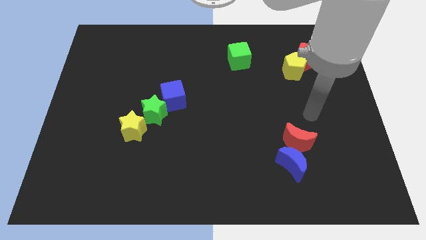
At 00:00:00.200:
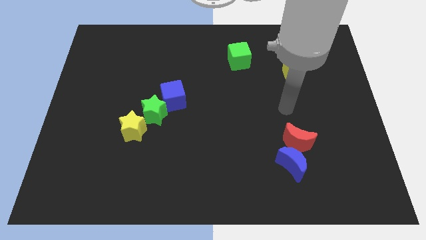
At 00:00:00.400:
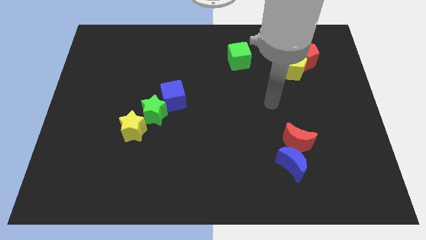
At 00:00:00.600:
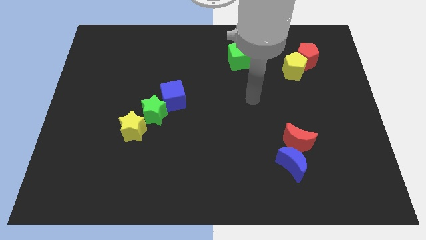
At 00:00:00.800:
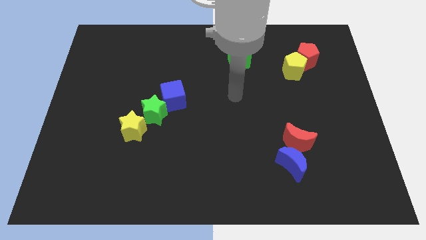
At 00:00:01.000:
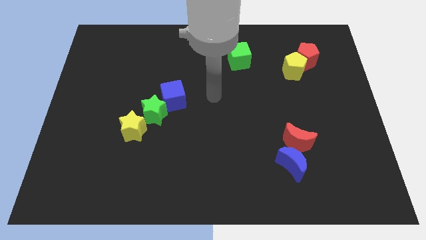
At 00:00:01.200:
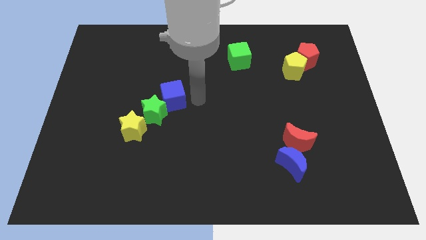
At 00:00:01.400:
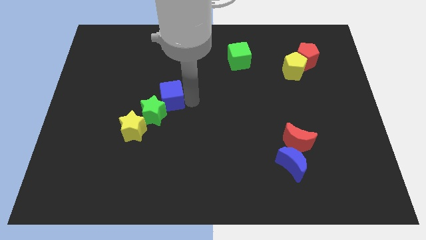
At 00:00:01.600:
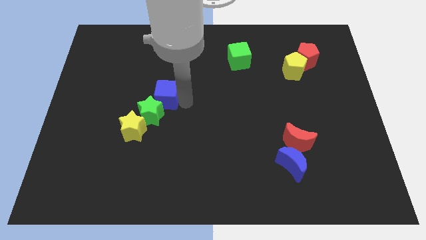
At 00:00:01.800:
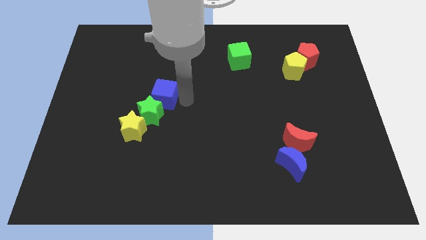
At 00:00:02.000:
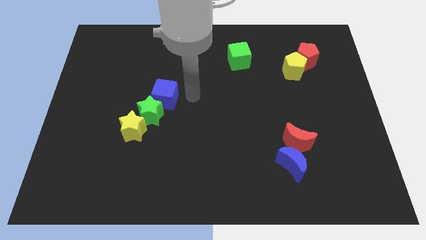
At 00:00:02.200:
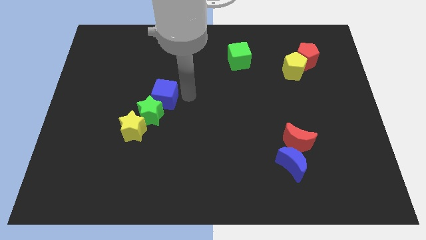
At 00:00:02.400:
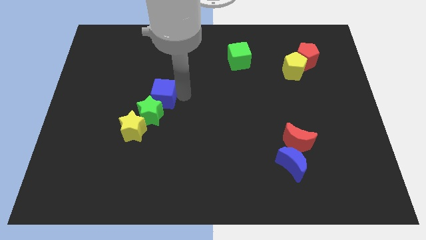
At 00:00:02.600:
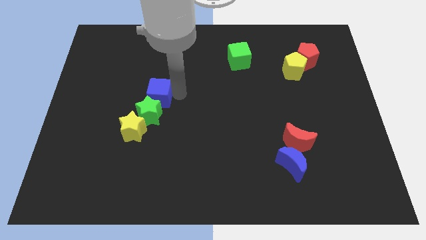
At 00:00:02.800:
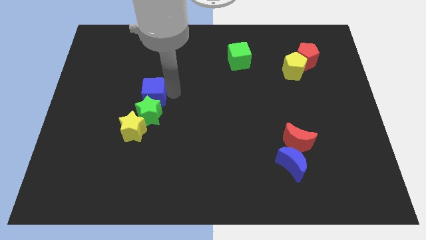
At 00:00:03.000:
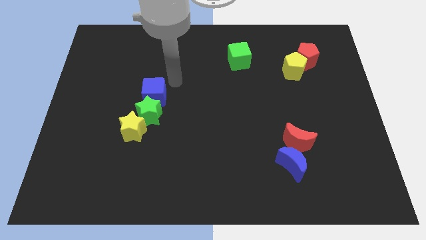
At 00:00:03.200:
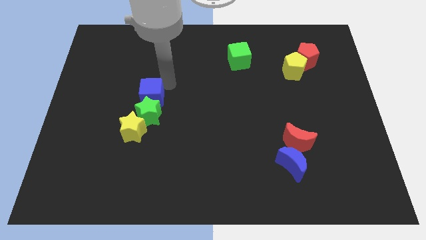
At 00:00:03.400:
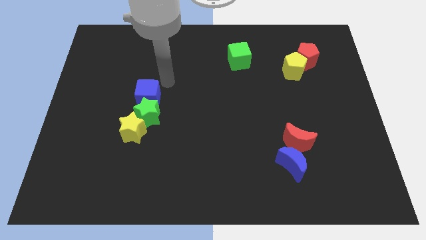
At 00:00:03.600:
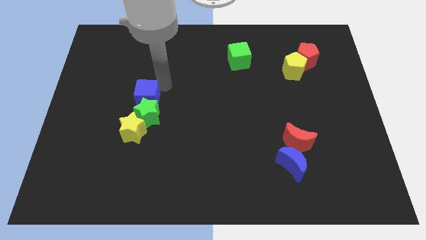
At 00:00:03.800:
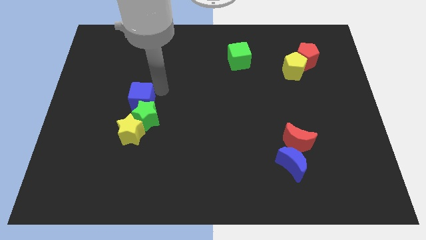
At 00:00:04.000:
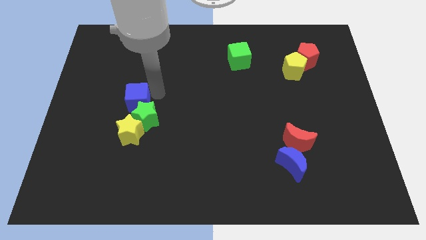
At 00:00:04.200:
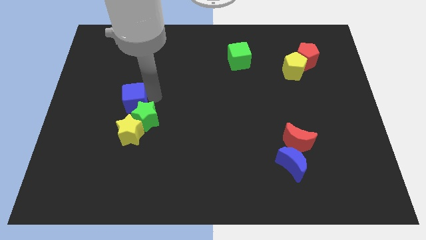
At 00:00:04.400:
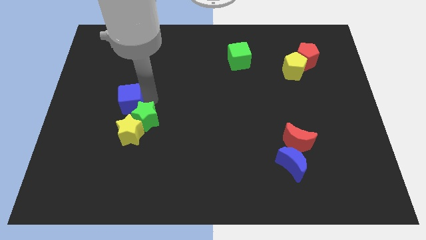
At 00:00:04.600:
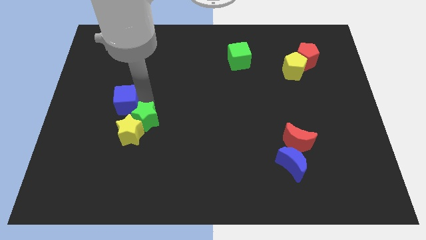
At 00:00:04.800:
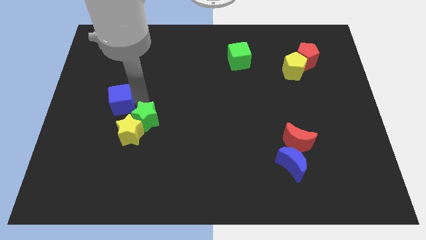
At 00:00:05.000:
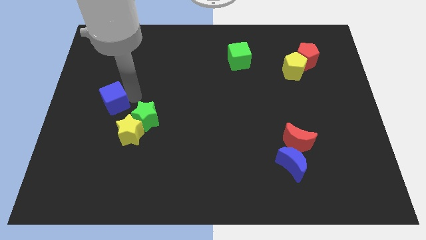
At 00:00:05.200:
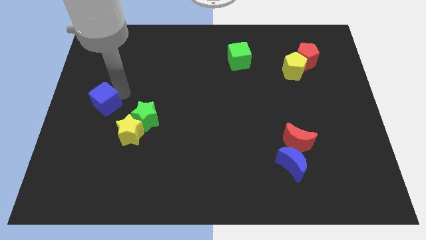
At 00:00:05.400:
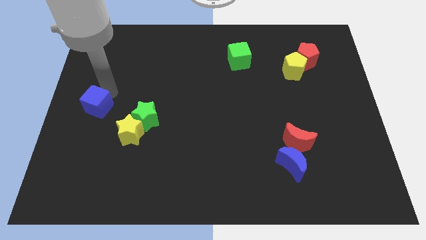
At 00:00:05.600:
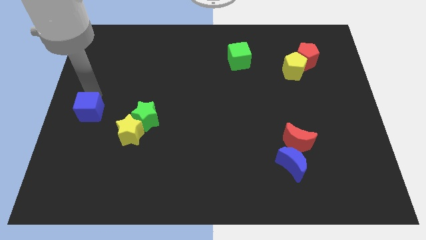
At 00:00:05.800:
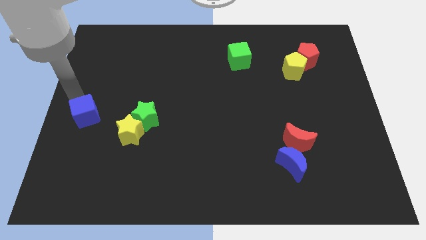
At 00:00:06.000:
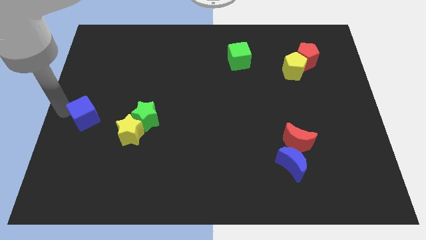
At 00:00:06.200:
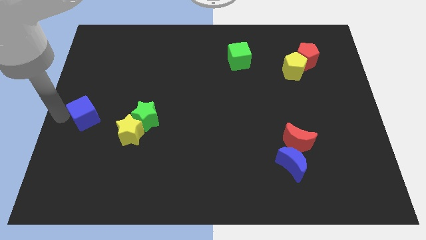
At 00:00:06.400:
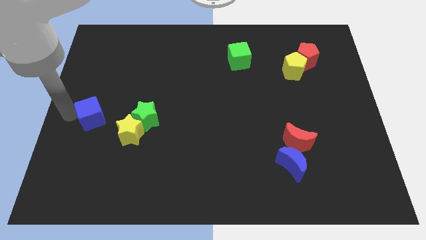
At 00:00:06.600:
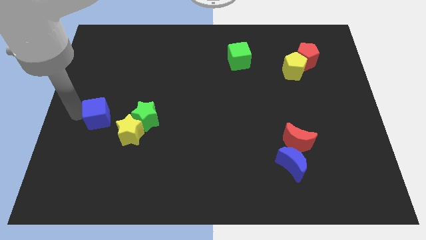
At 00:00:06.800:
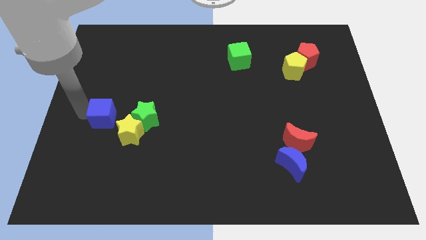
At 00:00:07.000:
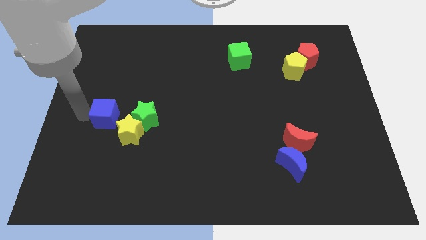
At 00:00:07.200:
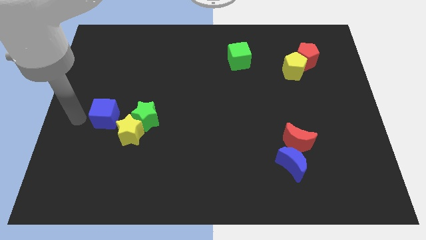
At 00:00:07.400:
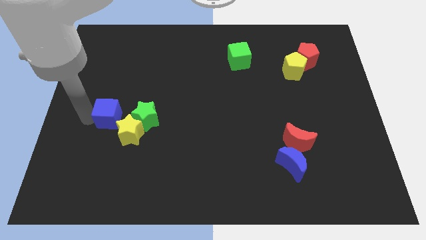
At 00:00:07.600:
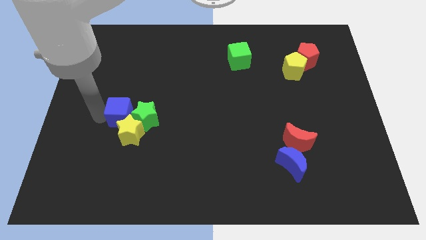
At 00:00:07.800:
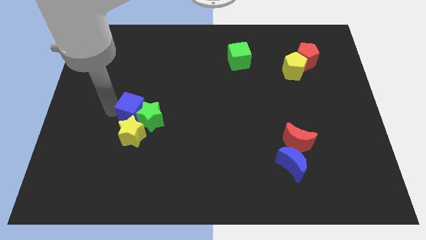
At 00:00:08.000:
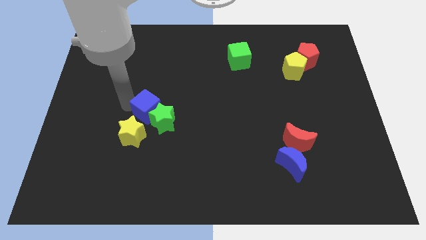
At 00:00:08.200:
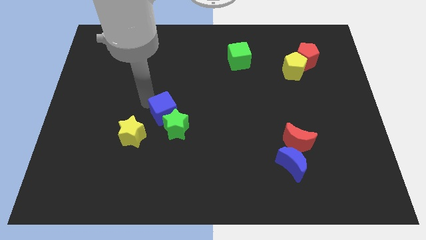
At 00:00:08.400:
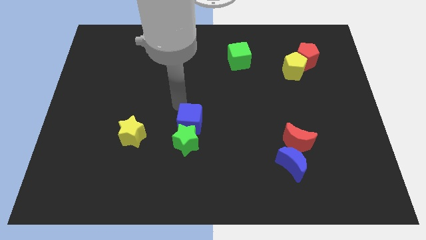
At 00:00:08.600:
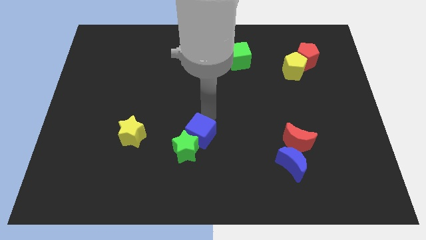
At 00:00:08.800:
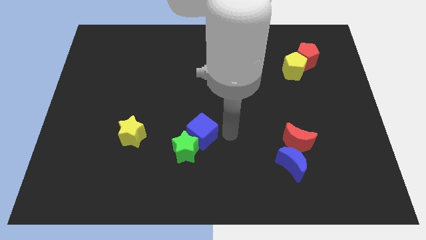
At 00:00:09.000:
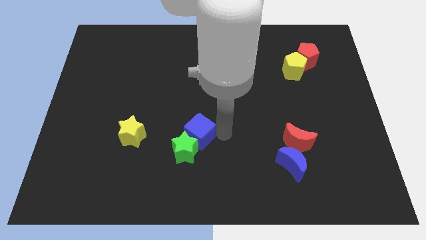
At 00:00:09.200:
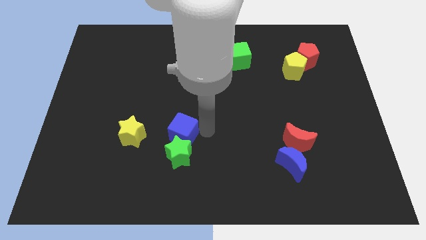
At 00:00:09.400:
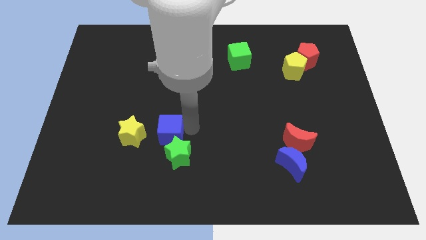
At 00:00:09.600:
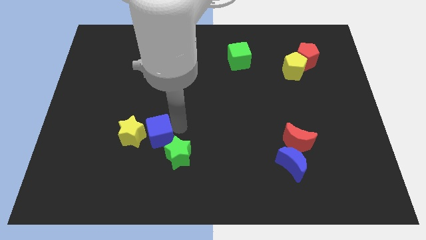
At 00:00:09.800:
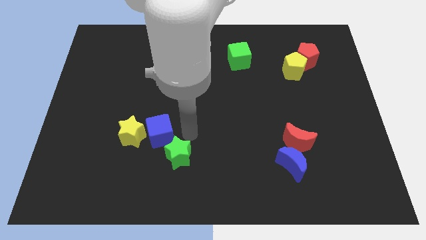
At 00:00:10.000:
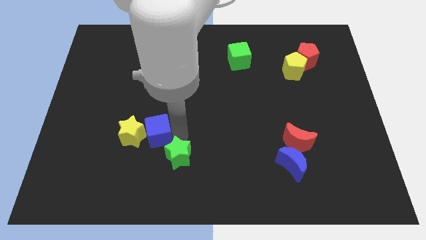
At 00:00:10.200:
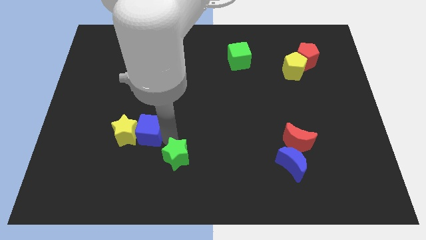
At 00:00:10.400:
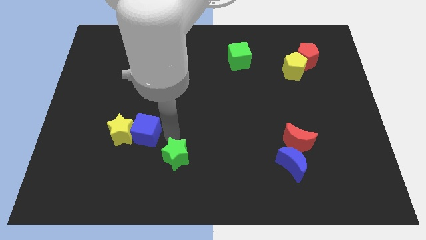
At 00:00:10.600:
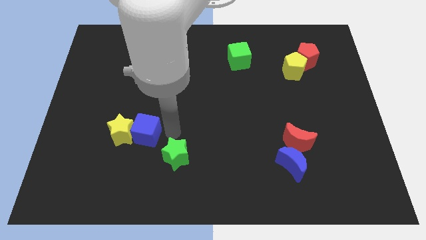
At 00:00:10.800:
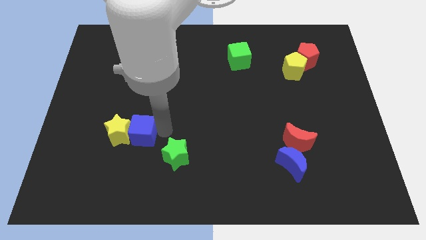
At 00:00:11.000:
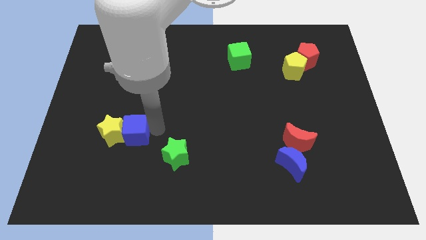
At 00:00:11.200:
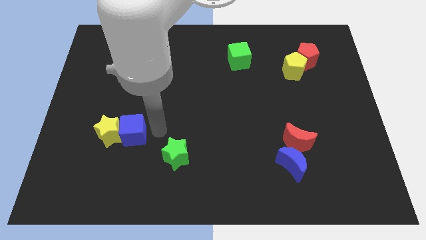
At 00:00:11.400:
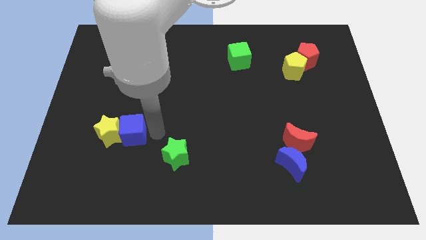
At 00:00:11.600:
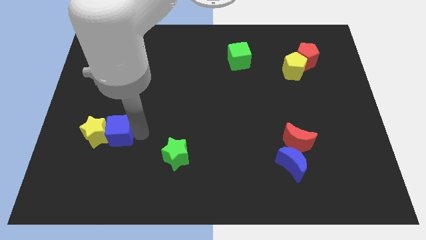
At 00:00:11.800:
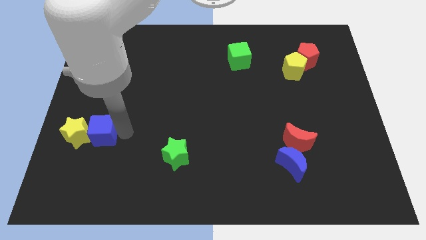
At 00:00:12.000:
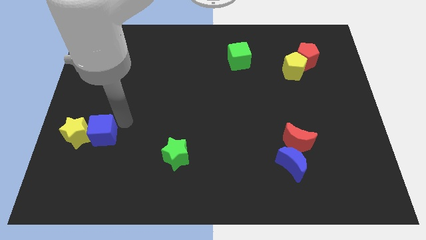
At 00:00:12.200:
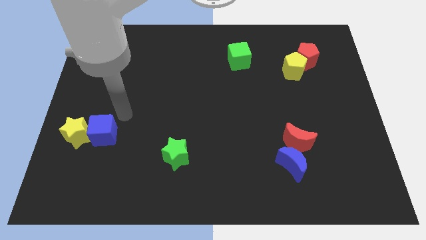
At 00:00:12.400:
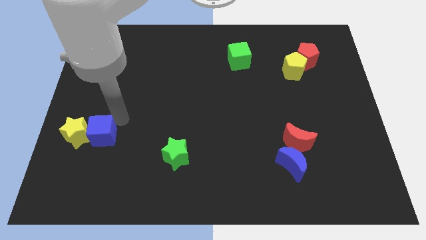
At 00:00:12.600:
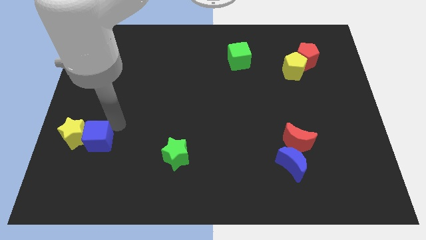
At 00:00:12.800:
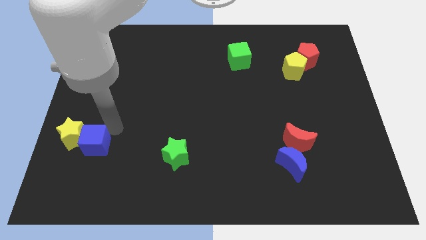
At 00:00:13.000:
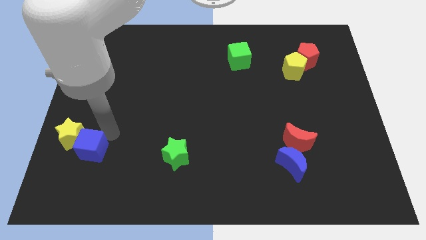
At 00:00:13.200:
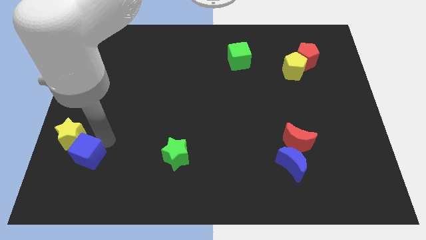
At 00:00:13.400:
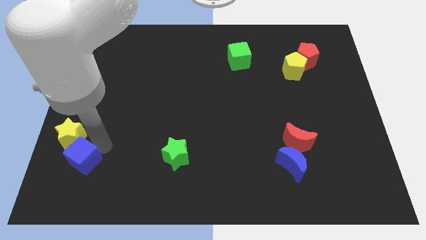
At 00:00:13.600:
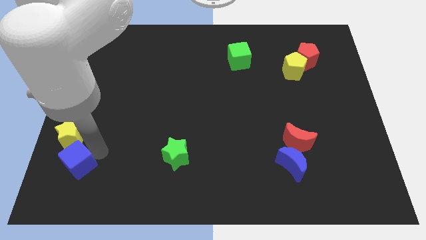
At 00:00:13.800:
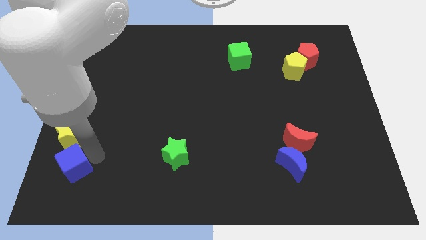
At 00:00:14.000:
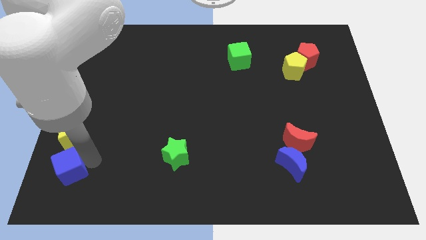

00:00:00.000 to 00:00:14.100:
slide the blue cube to the lower left corner
